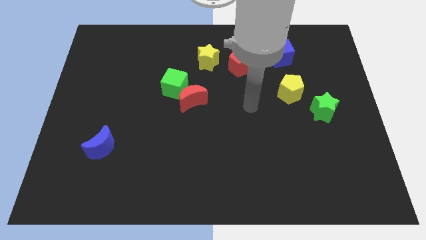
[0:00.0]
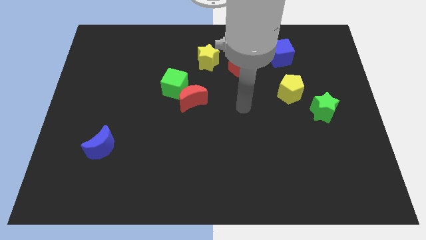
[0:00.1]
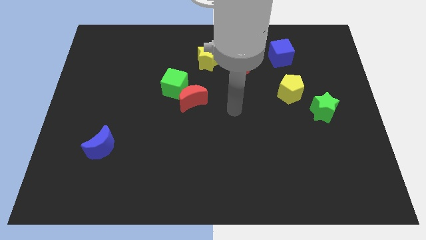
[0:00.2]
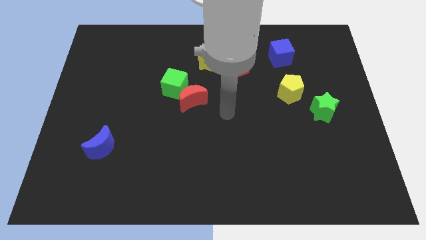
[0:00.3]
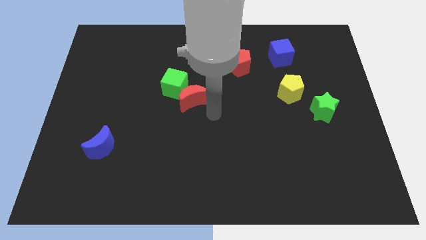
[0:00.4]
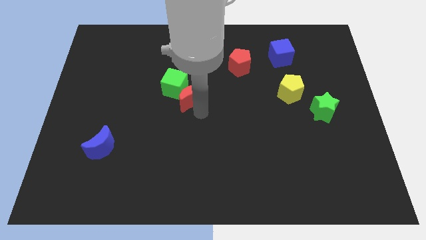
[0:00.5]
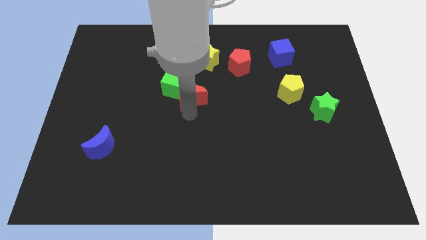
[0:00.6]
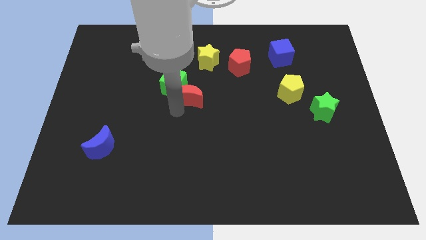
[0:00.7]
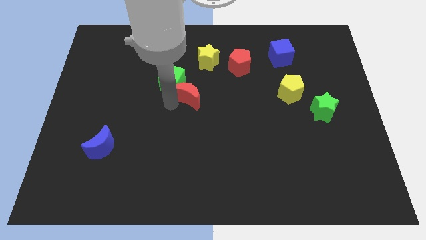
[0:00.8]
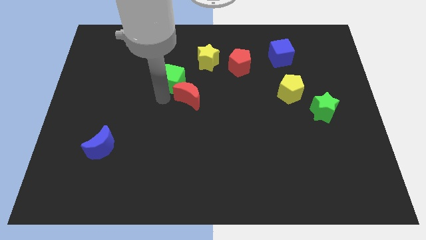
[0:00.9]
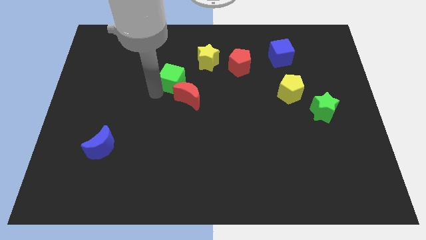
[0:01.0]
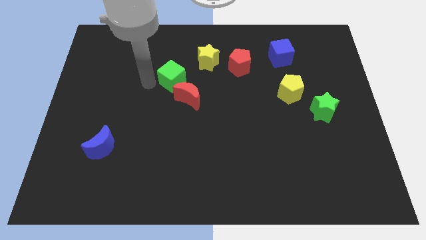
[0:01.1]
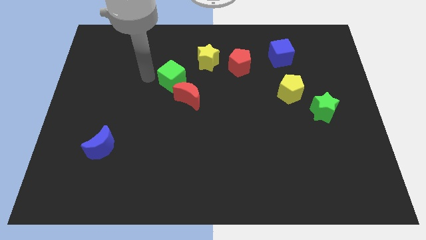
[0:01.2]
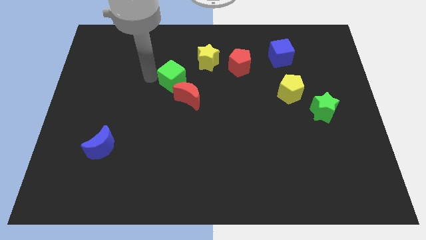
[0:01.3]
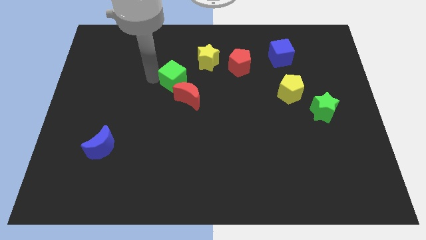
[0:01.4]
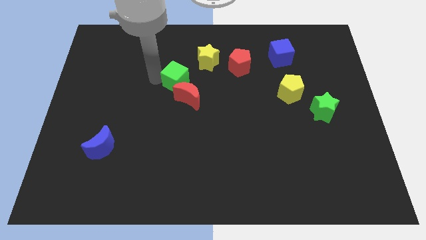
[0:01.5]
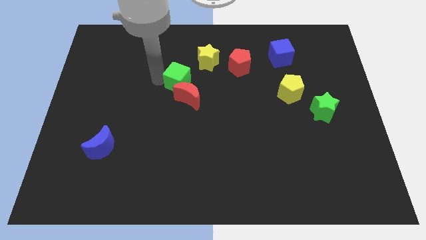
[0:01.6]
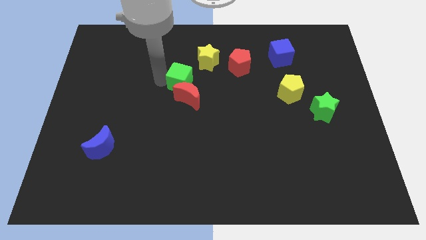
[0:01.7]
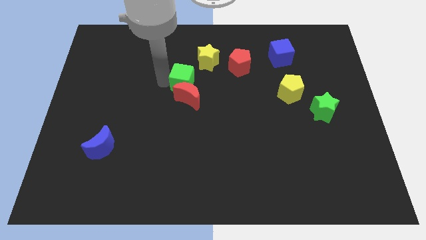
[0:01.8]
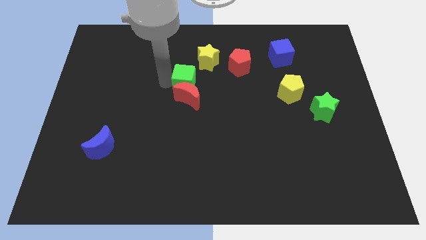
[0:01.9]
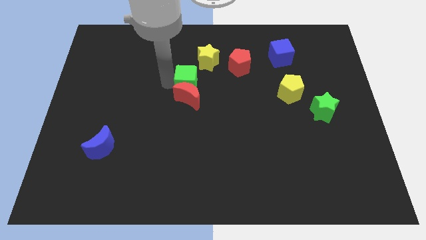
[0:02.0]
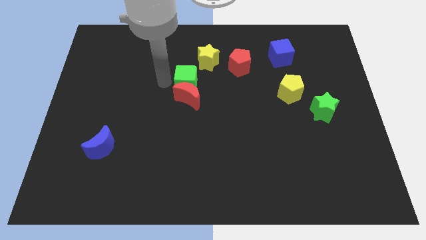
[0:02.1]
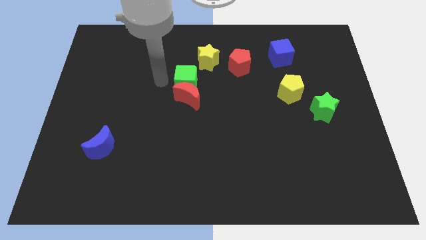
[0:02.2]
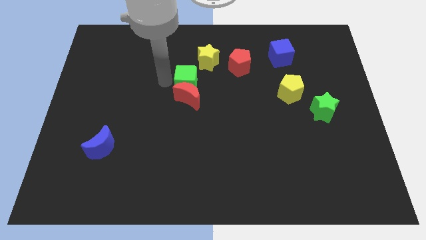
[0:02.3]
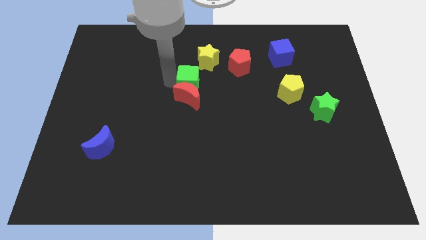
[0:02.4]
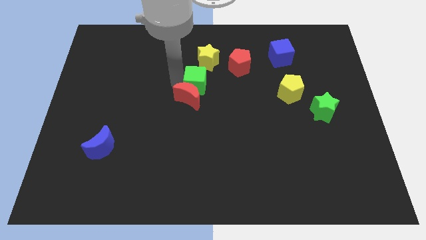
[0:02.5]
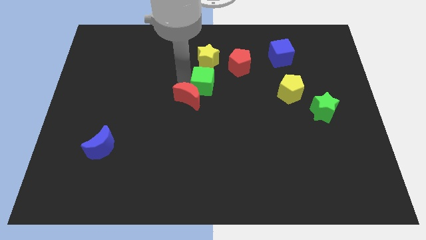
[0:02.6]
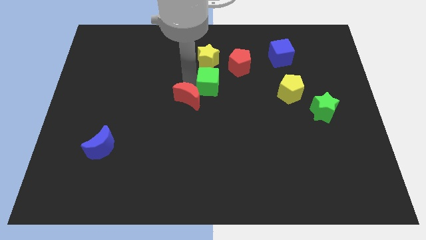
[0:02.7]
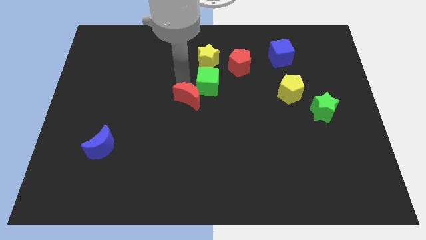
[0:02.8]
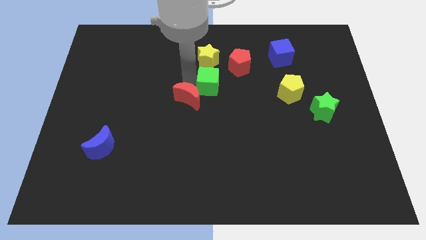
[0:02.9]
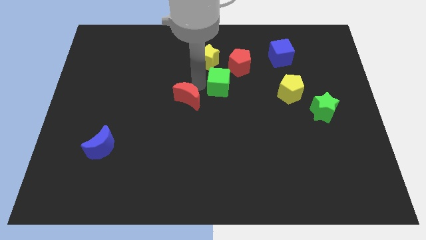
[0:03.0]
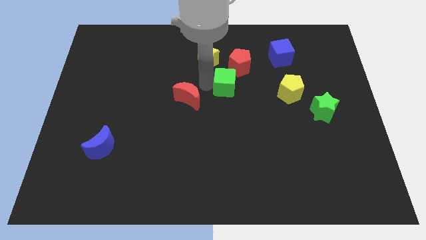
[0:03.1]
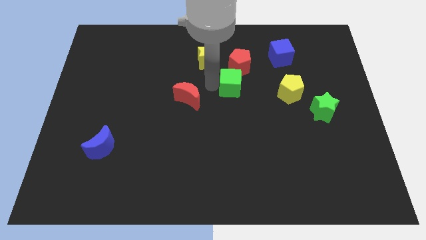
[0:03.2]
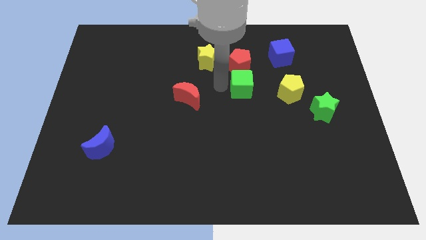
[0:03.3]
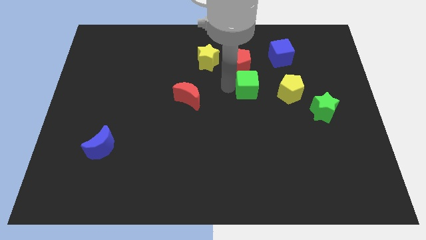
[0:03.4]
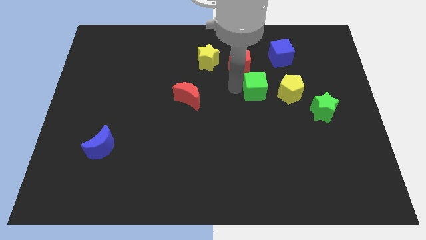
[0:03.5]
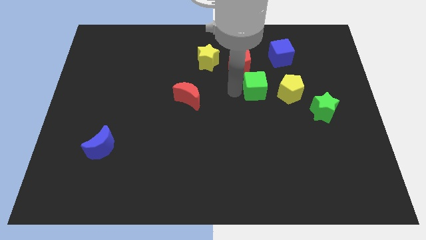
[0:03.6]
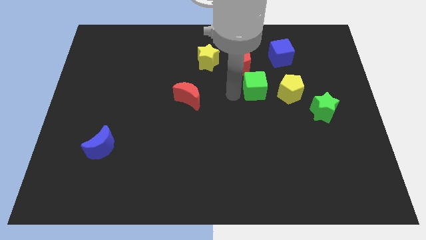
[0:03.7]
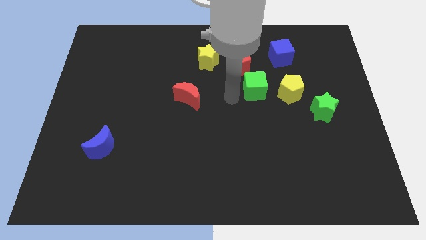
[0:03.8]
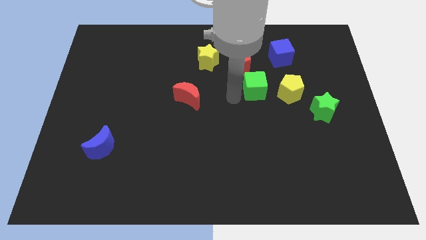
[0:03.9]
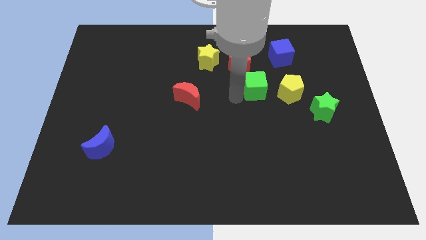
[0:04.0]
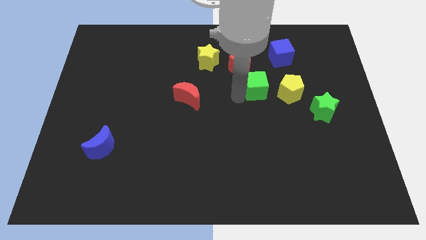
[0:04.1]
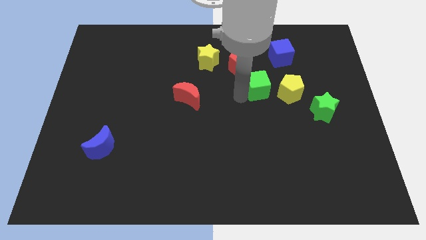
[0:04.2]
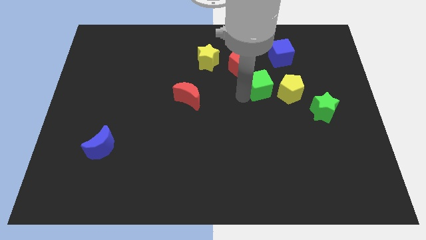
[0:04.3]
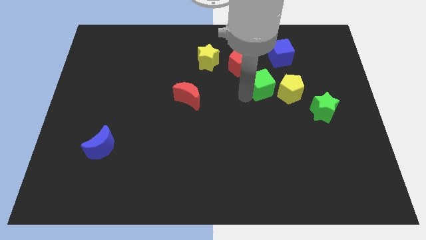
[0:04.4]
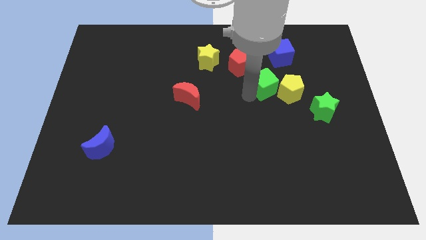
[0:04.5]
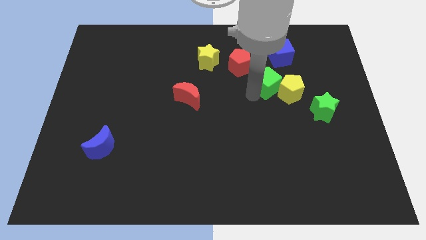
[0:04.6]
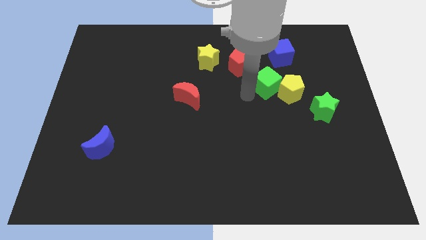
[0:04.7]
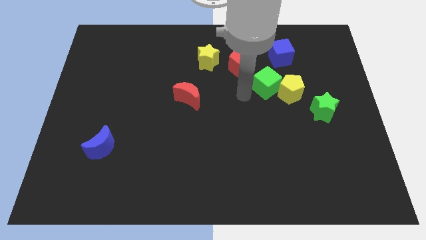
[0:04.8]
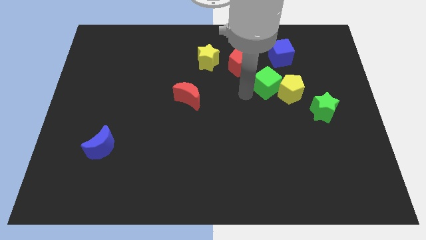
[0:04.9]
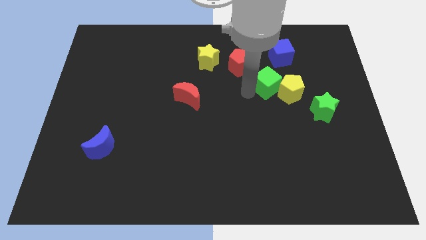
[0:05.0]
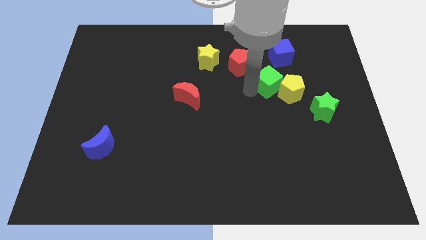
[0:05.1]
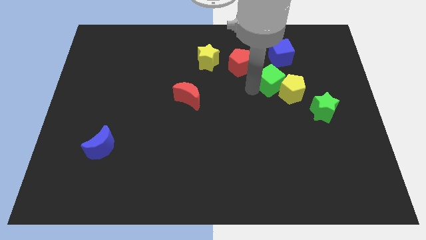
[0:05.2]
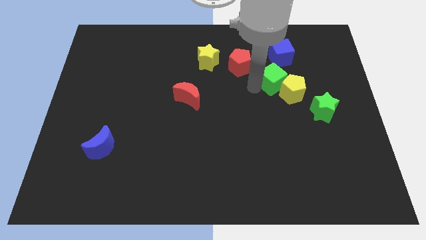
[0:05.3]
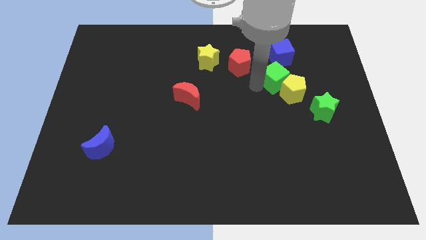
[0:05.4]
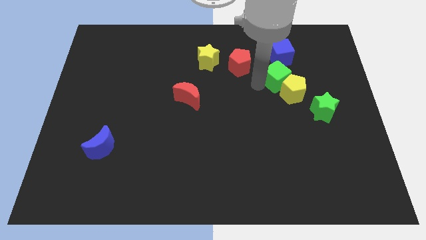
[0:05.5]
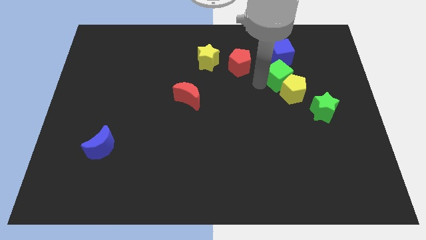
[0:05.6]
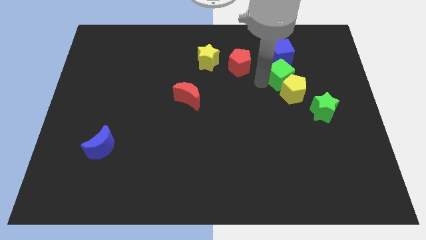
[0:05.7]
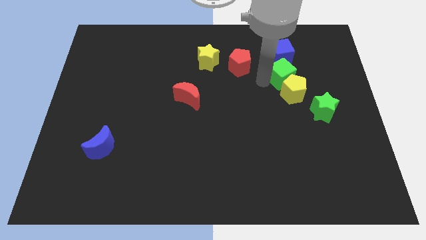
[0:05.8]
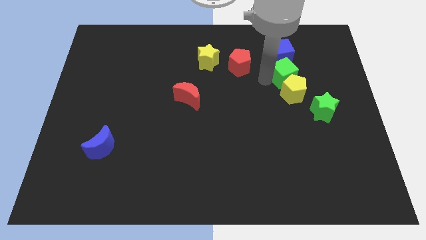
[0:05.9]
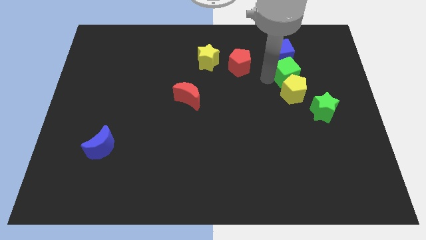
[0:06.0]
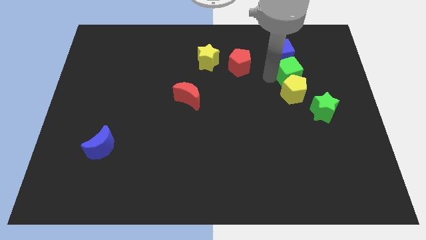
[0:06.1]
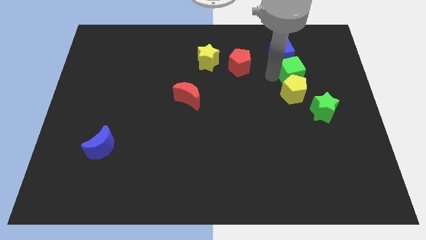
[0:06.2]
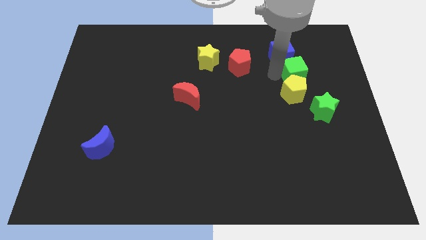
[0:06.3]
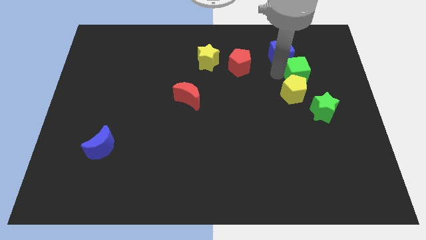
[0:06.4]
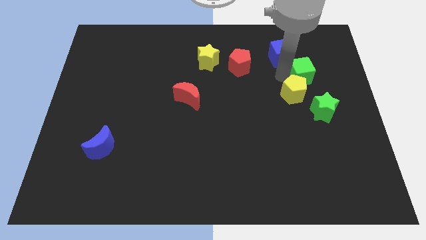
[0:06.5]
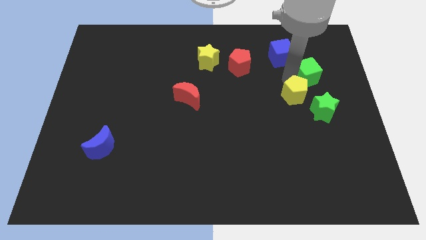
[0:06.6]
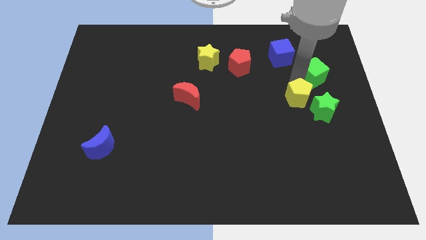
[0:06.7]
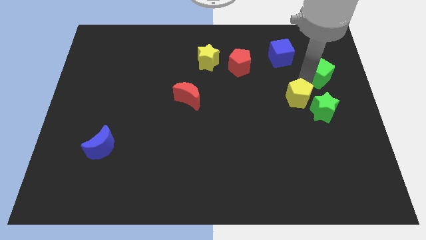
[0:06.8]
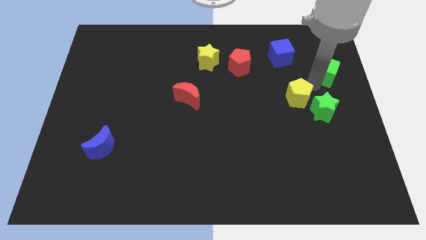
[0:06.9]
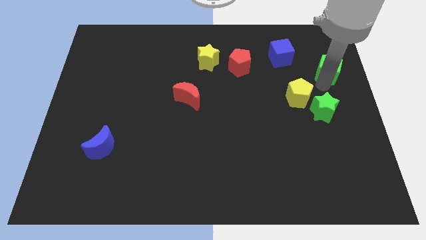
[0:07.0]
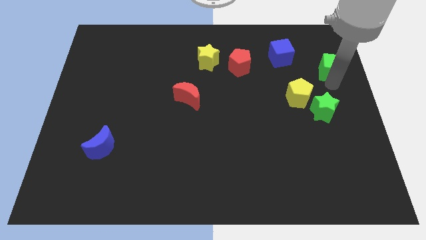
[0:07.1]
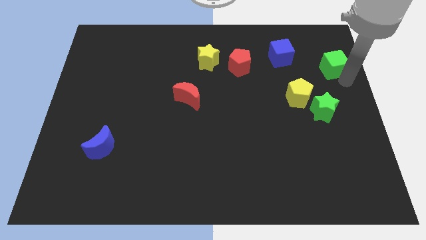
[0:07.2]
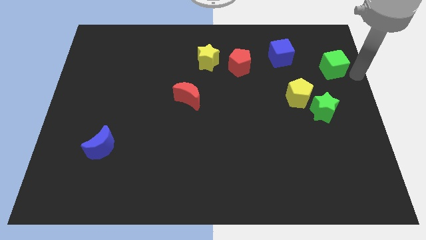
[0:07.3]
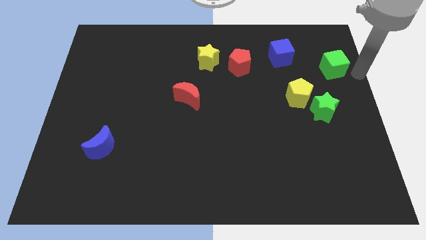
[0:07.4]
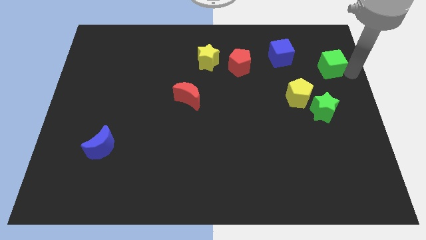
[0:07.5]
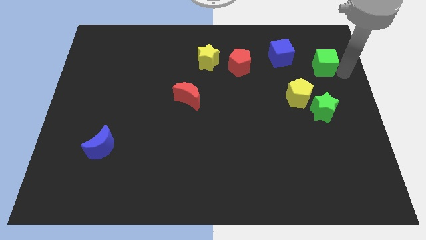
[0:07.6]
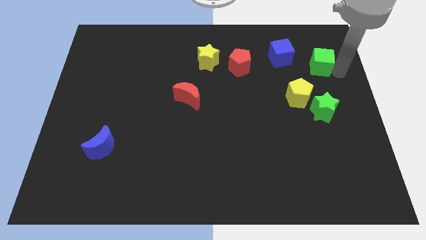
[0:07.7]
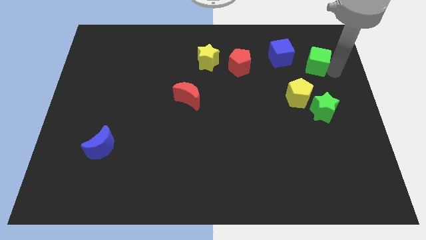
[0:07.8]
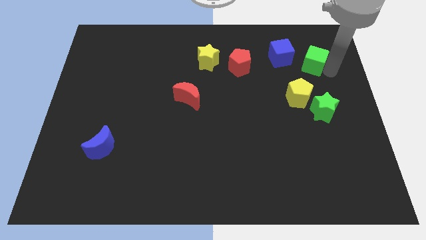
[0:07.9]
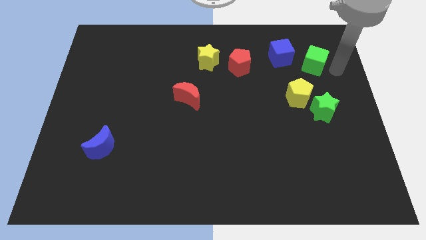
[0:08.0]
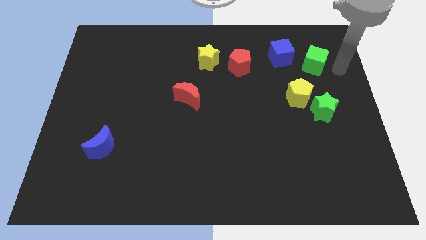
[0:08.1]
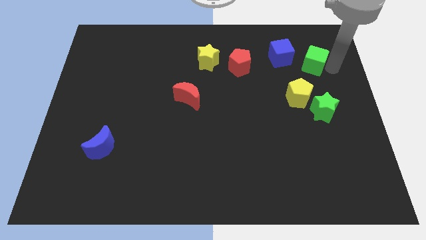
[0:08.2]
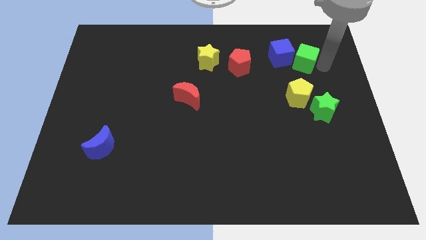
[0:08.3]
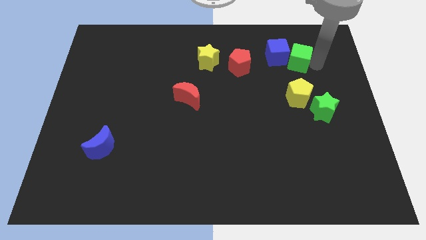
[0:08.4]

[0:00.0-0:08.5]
slide the green cube next to the blue cube
